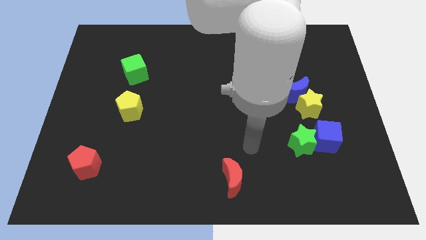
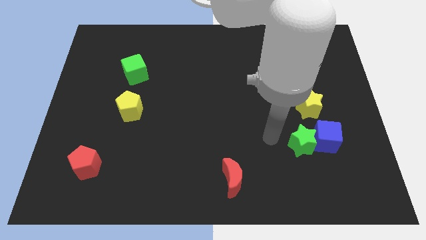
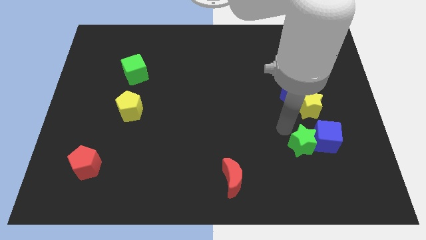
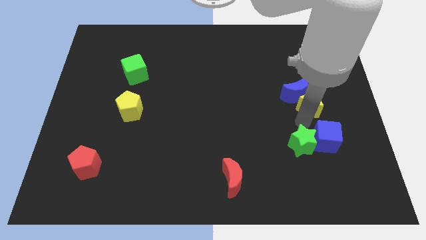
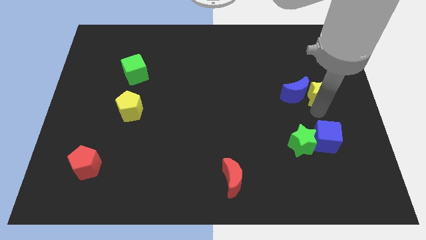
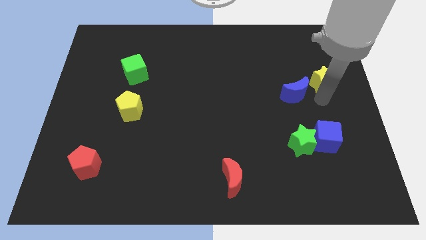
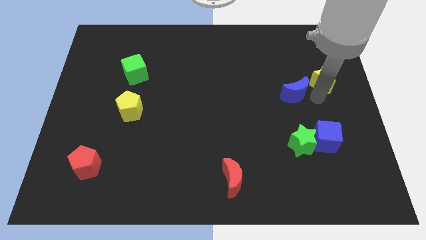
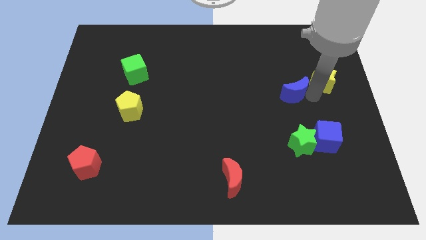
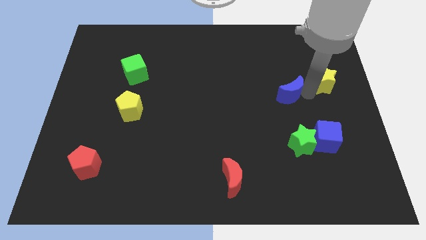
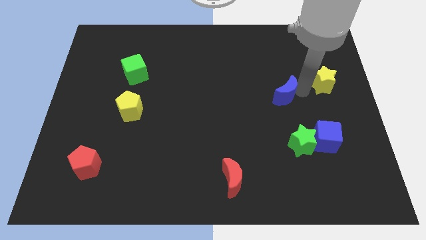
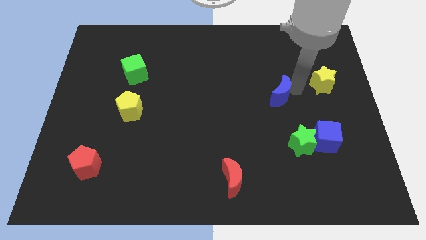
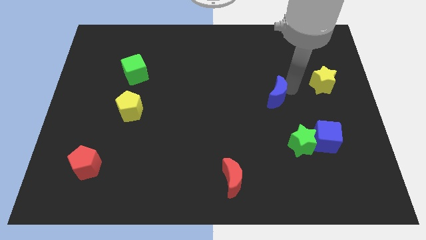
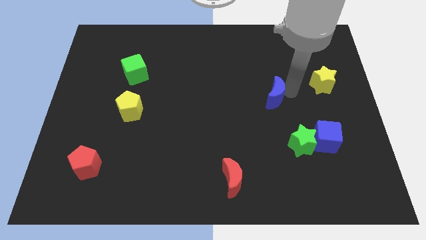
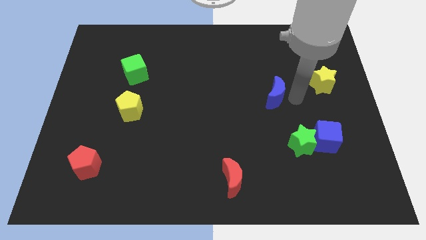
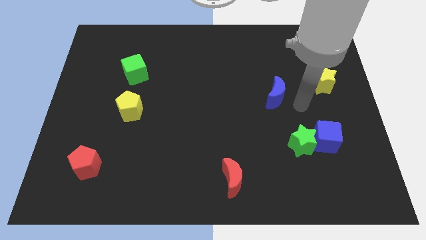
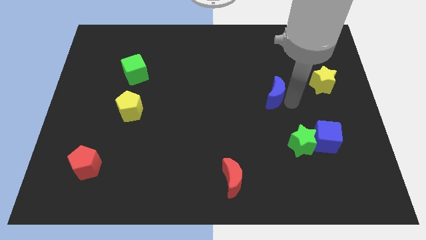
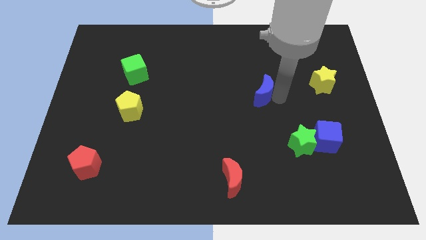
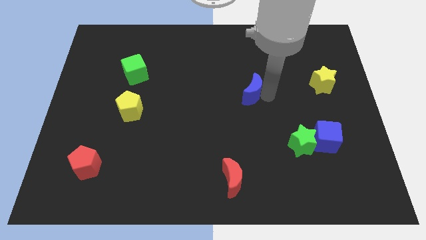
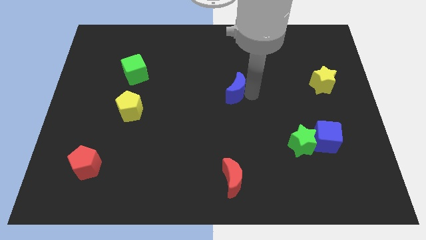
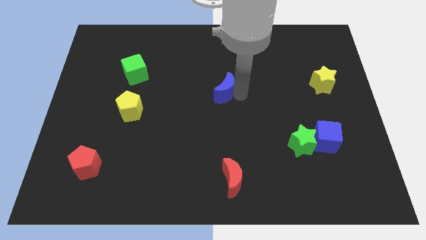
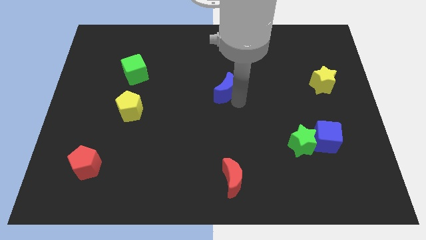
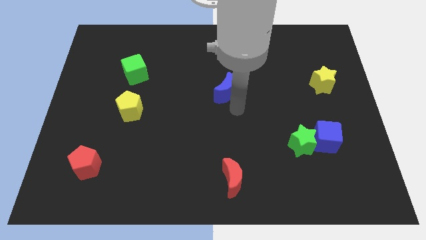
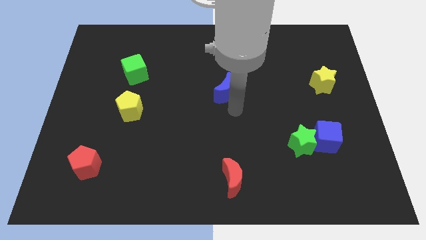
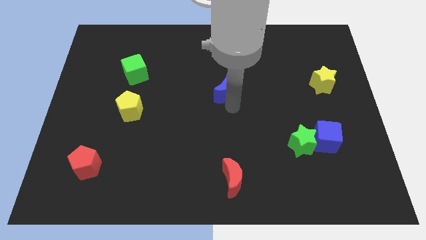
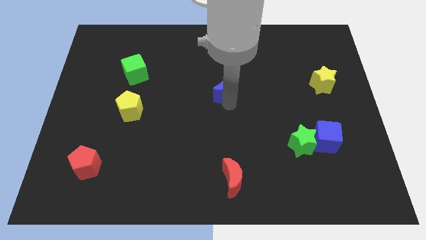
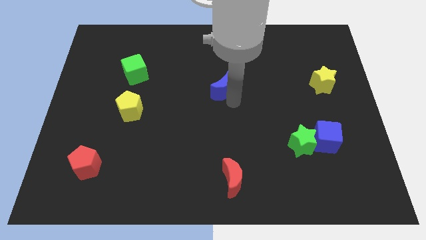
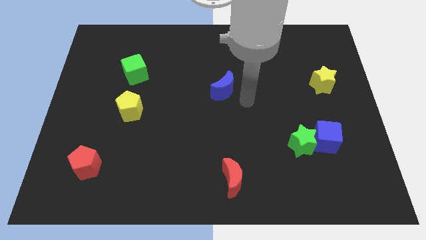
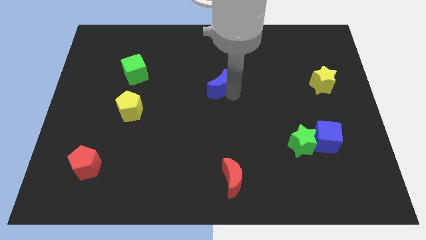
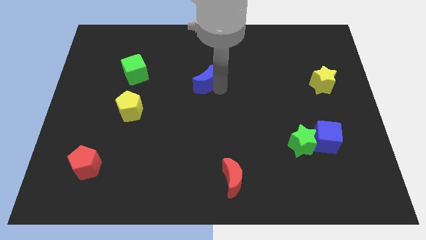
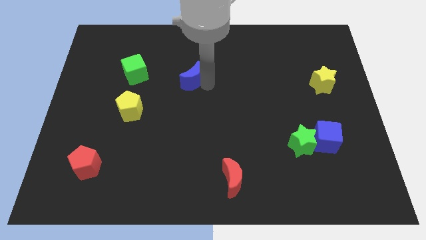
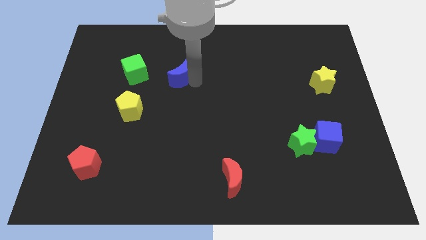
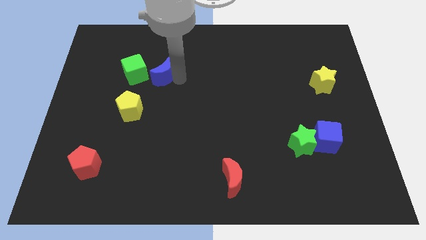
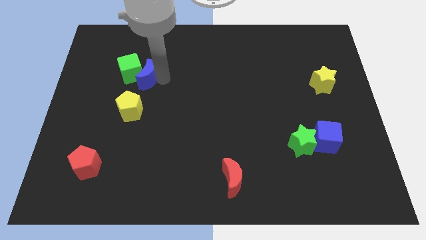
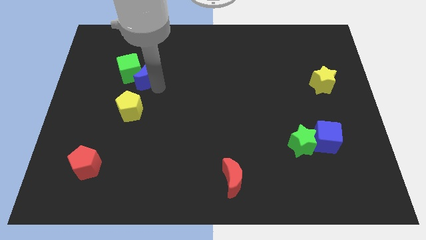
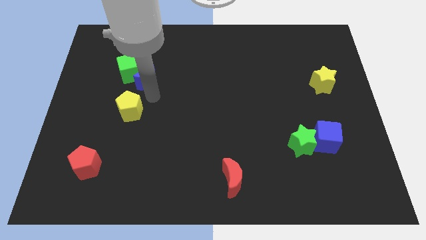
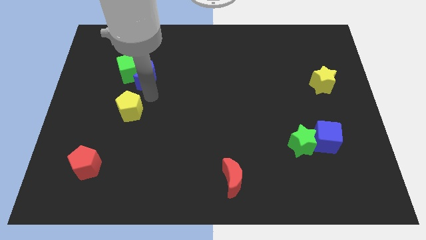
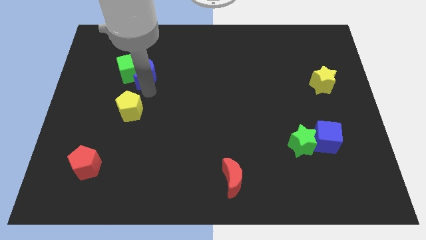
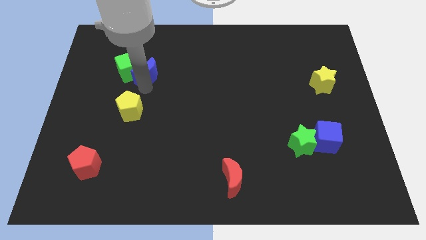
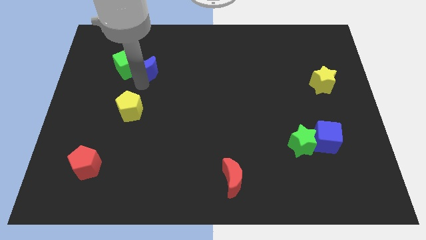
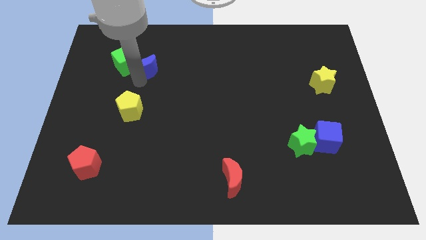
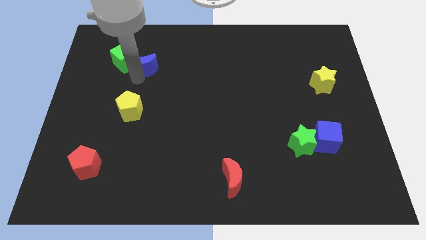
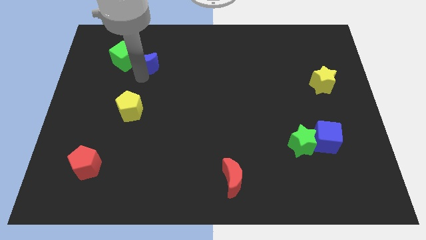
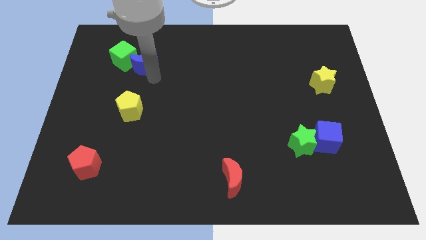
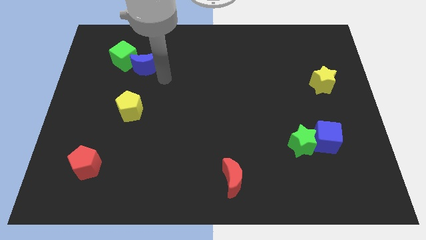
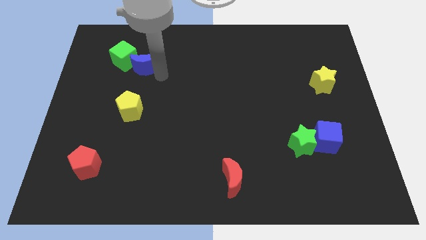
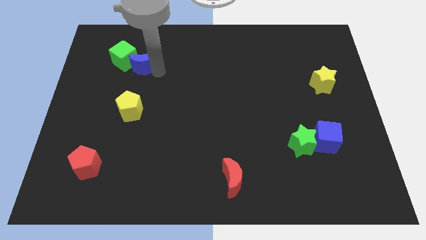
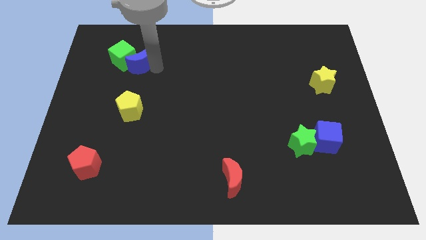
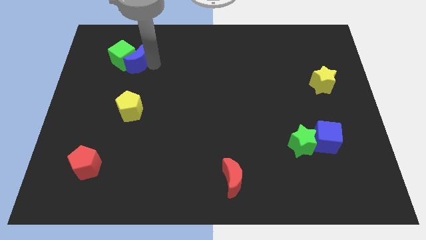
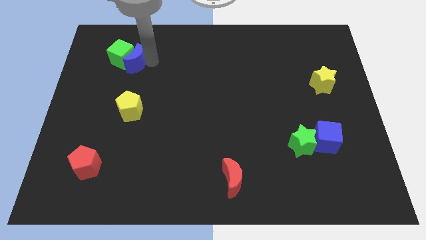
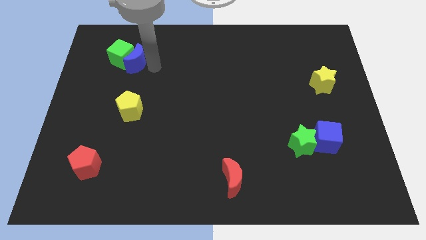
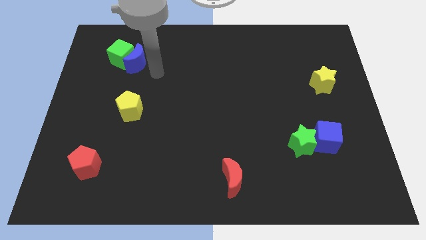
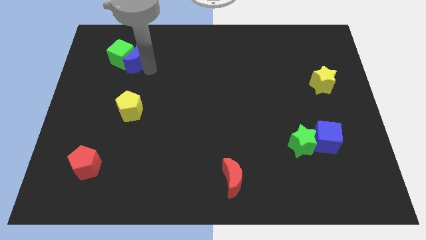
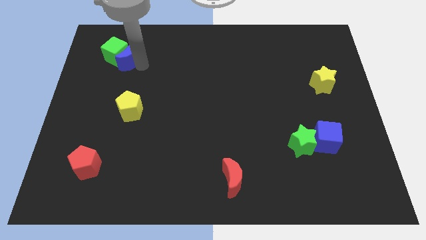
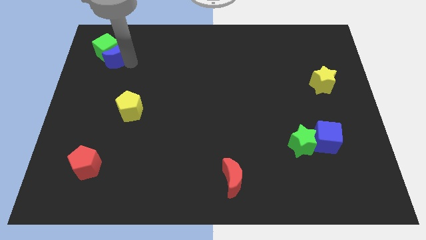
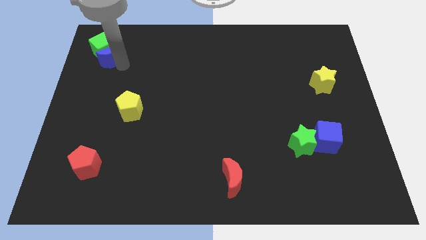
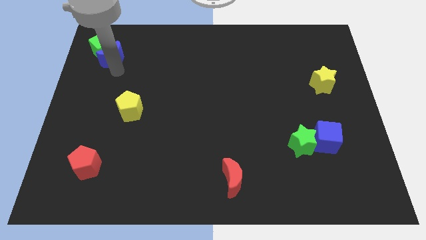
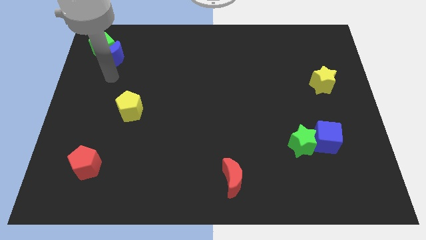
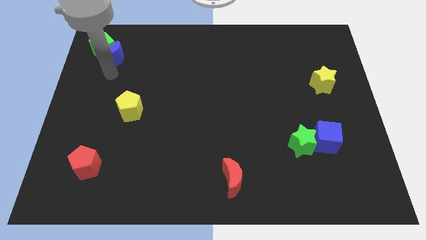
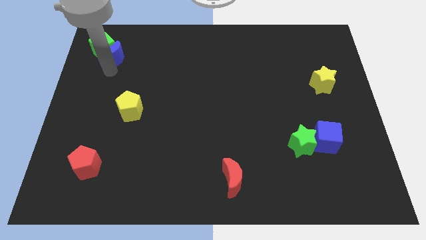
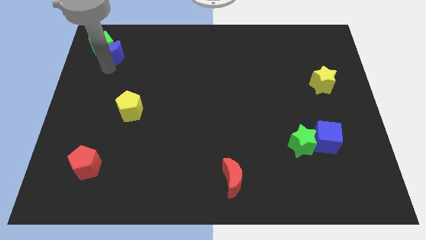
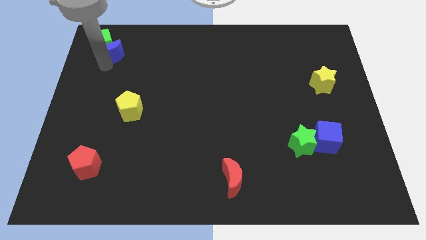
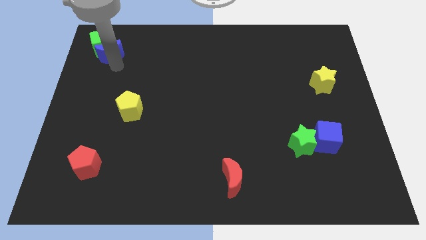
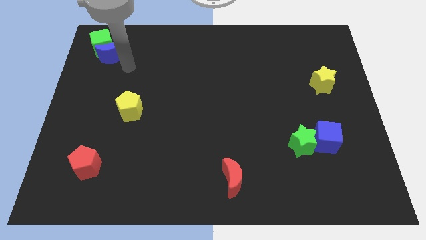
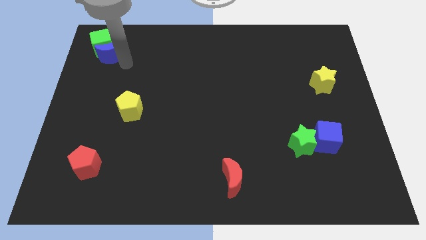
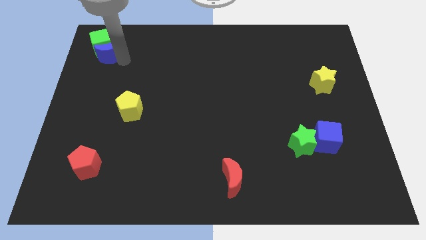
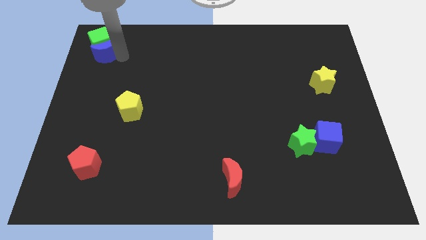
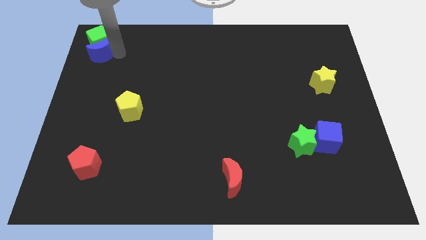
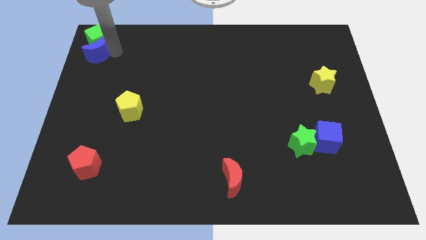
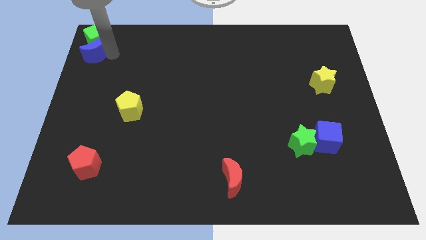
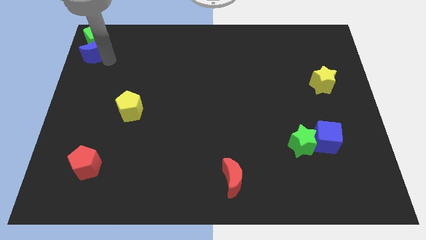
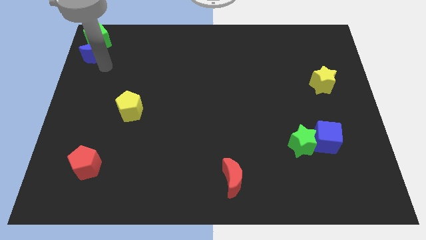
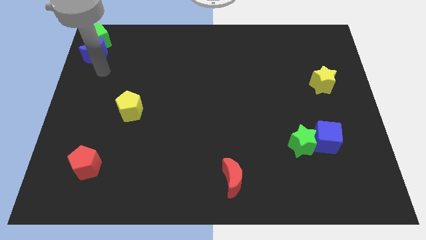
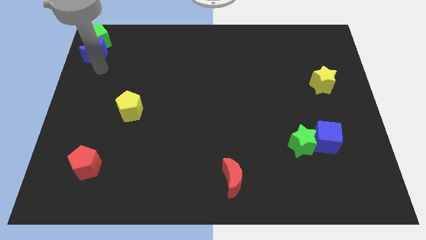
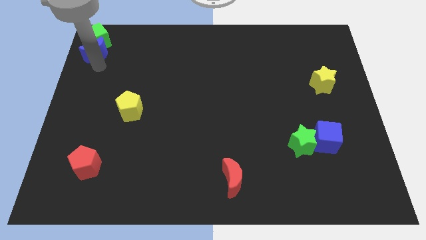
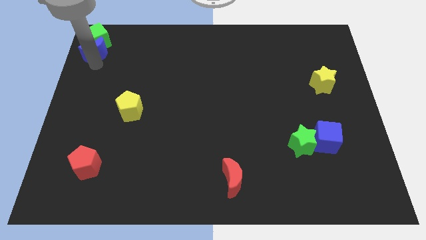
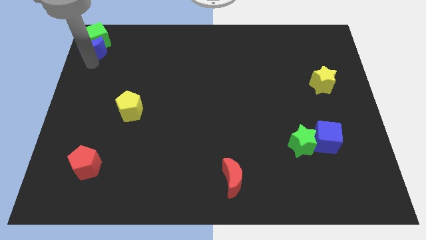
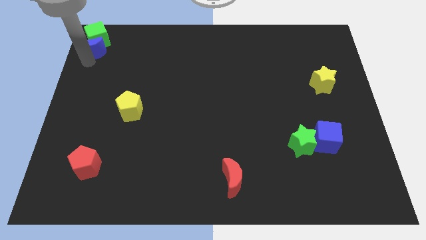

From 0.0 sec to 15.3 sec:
move the blue moon to the top left
